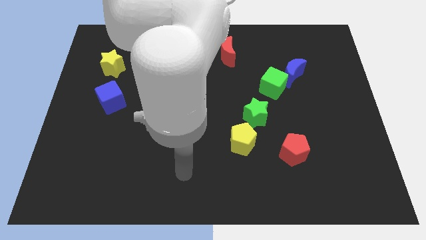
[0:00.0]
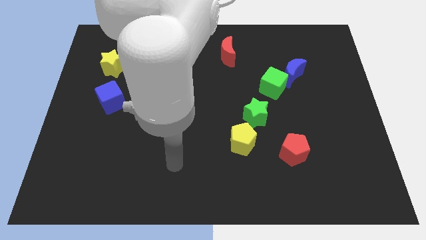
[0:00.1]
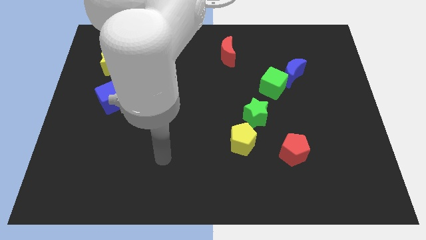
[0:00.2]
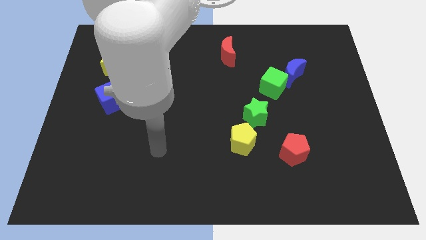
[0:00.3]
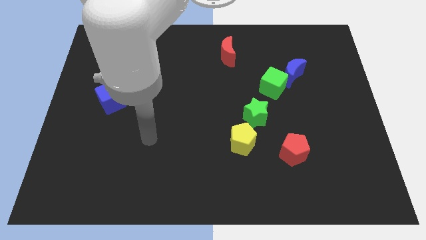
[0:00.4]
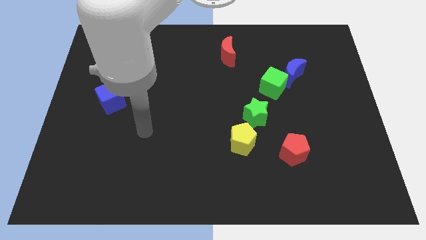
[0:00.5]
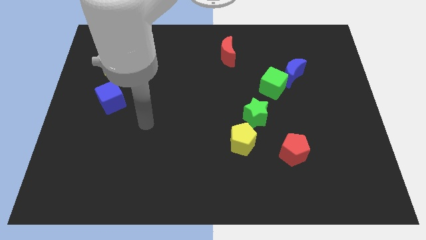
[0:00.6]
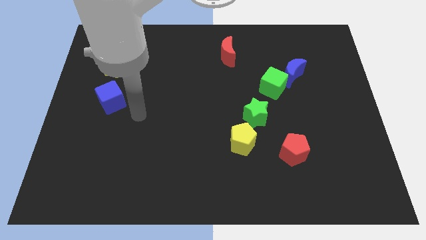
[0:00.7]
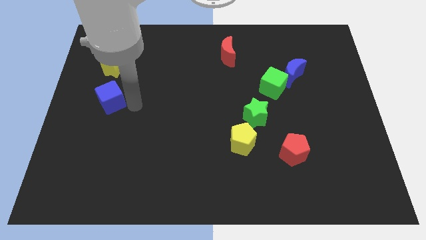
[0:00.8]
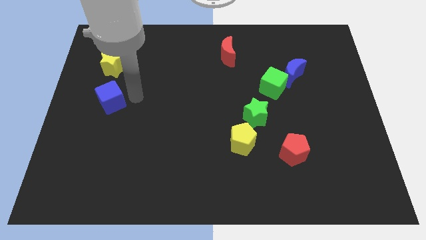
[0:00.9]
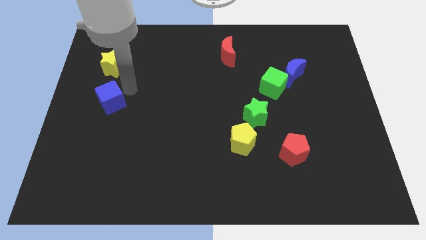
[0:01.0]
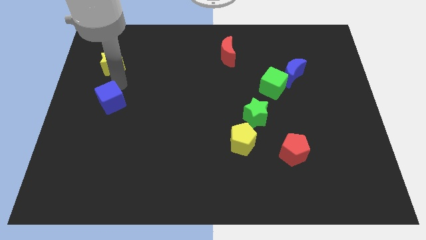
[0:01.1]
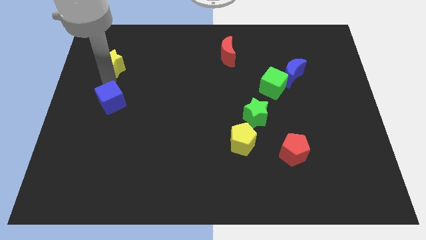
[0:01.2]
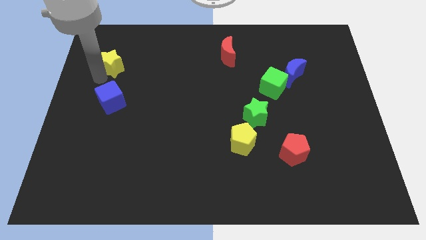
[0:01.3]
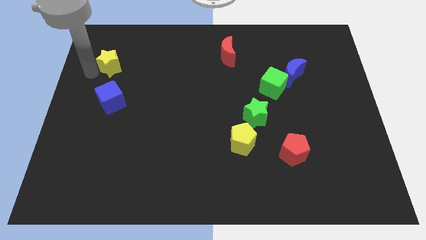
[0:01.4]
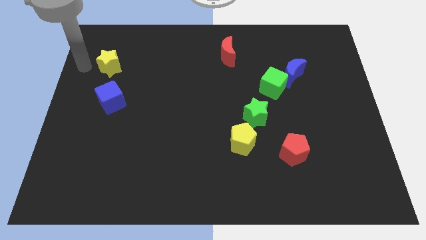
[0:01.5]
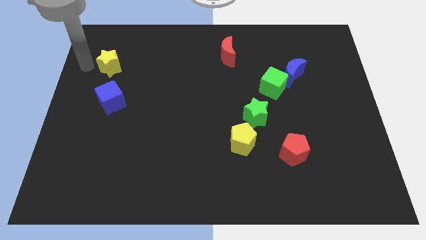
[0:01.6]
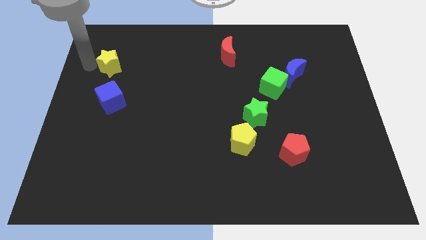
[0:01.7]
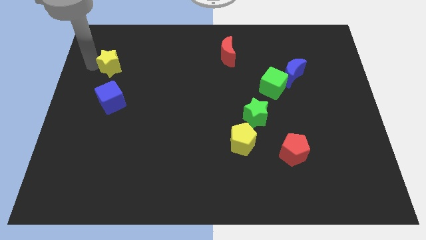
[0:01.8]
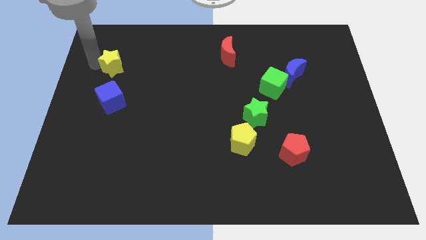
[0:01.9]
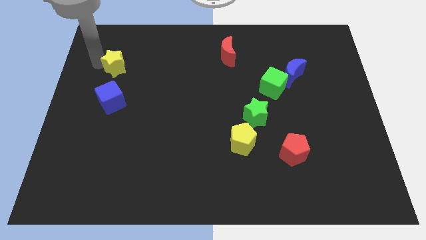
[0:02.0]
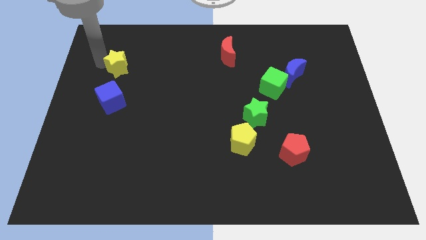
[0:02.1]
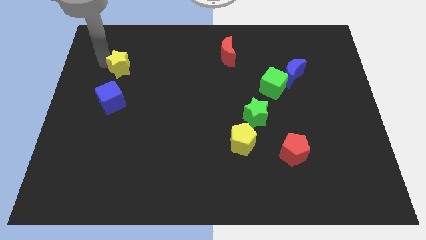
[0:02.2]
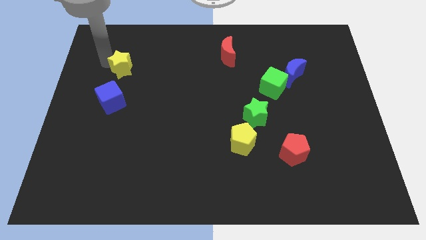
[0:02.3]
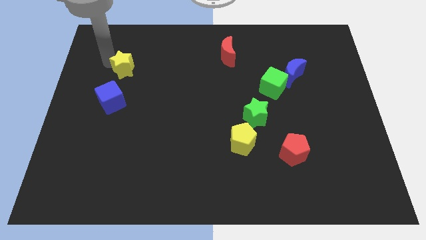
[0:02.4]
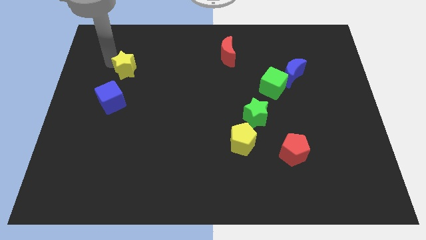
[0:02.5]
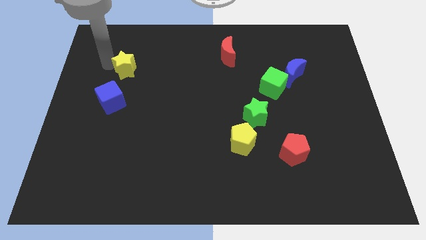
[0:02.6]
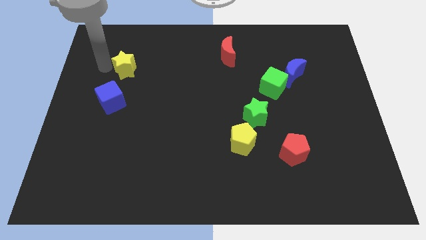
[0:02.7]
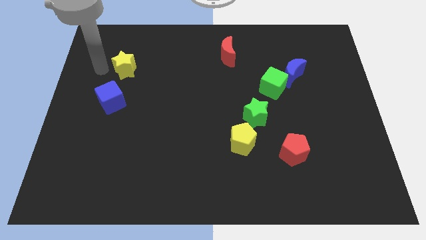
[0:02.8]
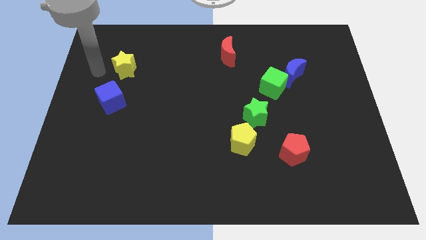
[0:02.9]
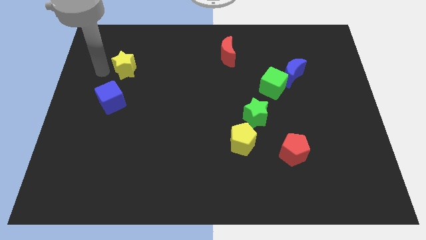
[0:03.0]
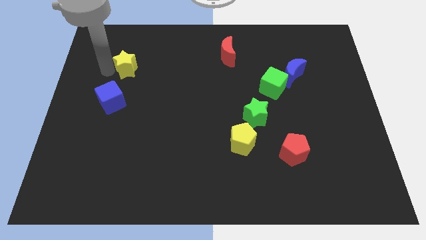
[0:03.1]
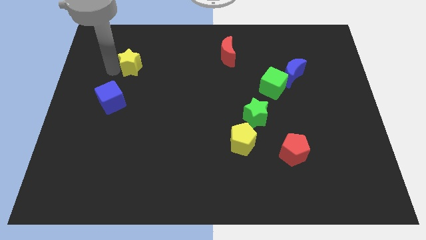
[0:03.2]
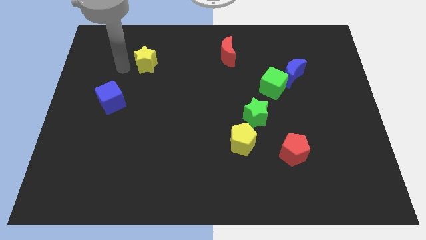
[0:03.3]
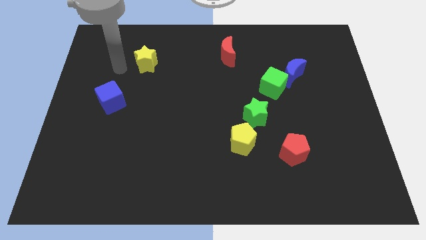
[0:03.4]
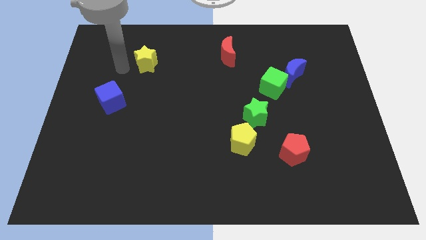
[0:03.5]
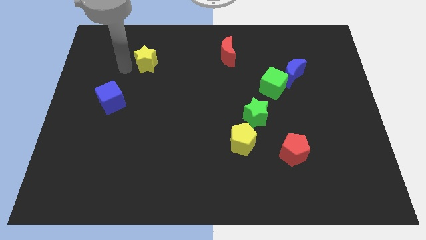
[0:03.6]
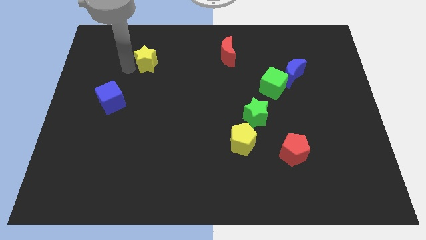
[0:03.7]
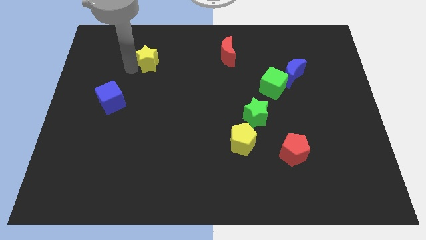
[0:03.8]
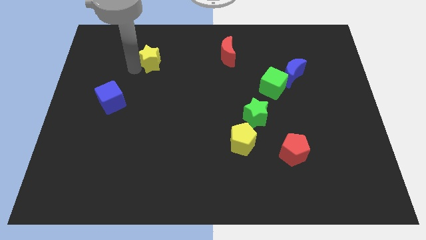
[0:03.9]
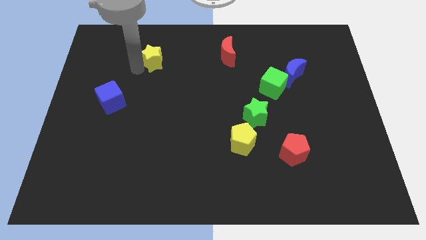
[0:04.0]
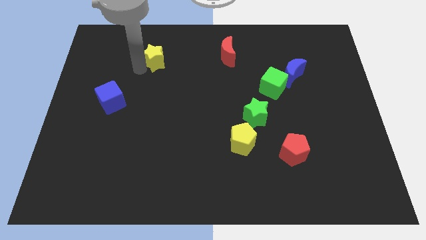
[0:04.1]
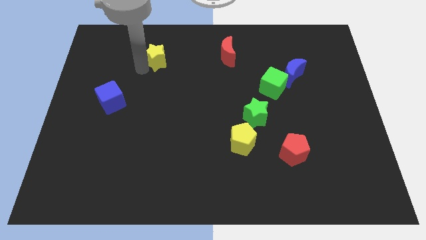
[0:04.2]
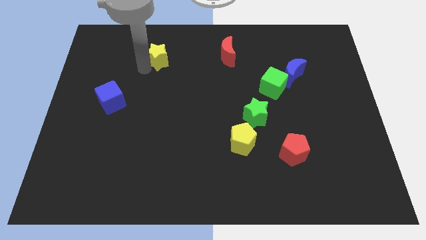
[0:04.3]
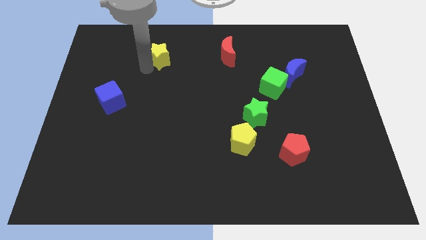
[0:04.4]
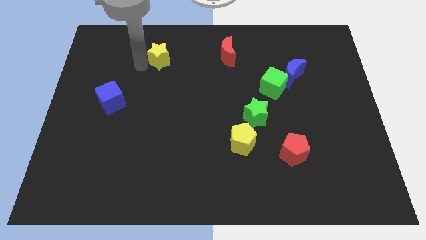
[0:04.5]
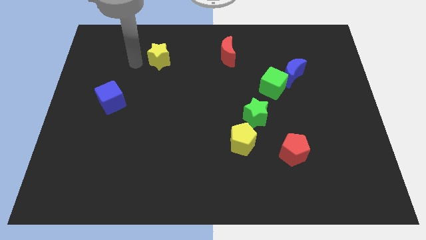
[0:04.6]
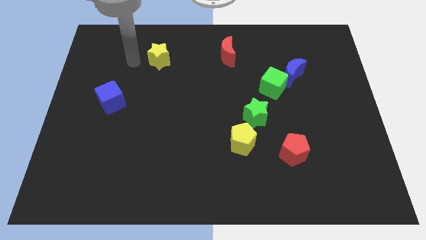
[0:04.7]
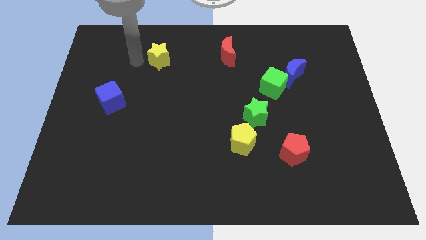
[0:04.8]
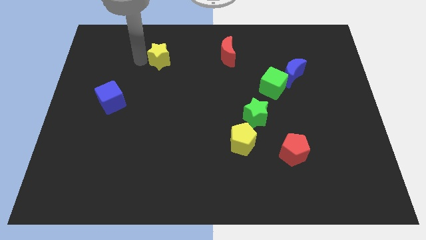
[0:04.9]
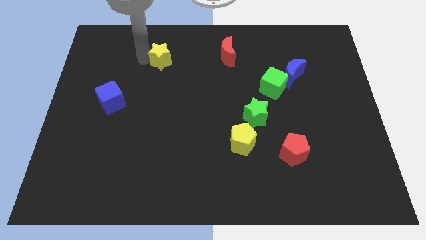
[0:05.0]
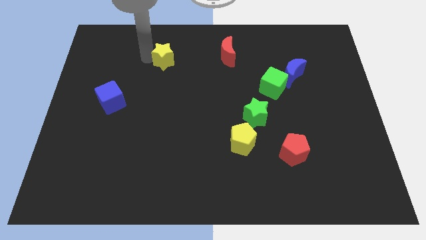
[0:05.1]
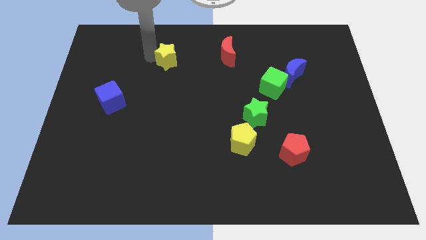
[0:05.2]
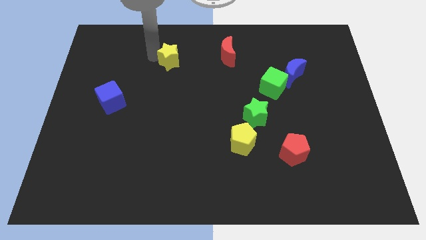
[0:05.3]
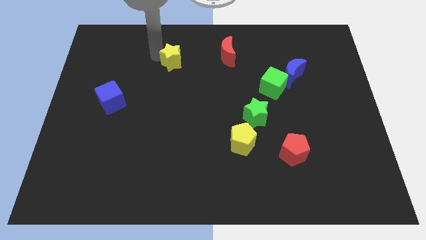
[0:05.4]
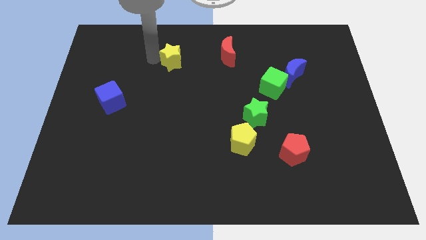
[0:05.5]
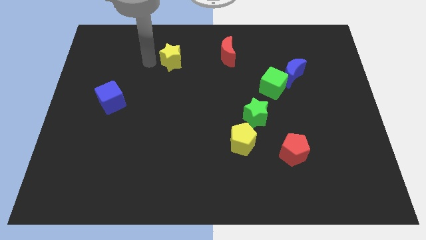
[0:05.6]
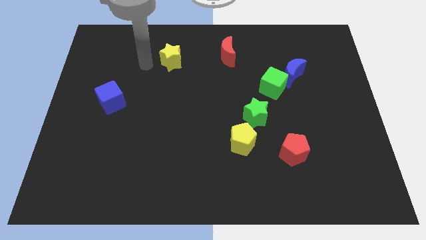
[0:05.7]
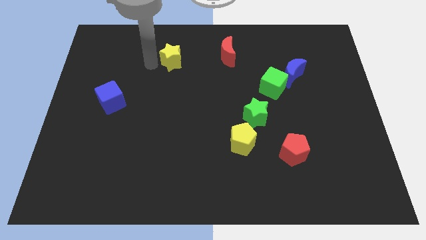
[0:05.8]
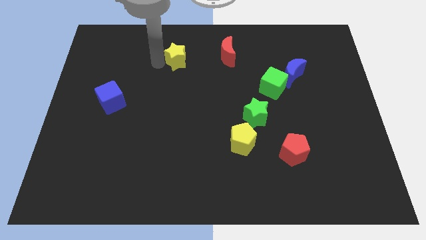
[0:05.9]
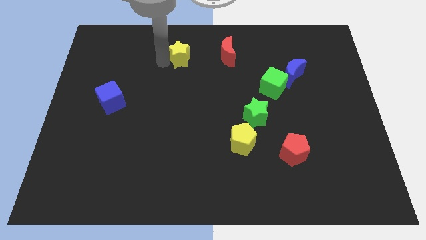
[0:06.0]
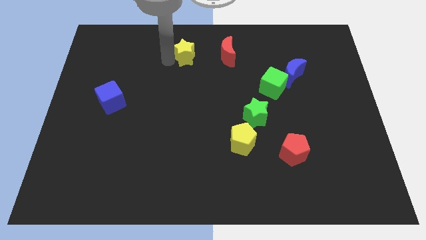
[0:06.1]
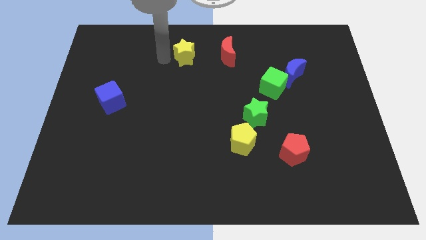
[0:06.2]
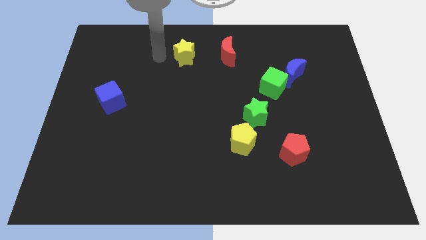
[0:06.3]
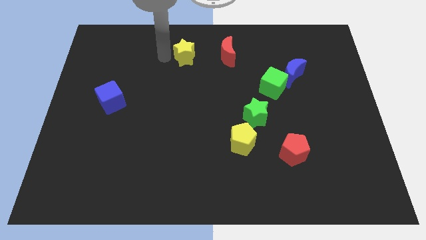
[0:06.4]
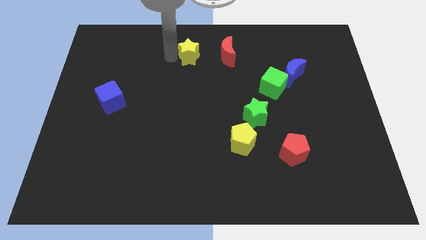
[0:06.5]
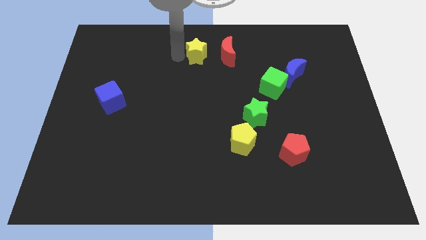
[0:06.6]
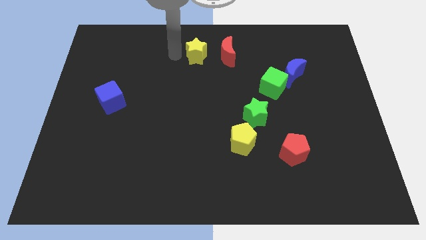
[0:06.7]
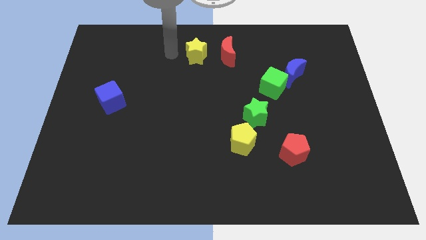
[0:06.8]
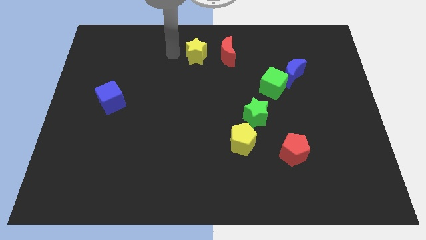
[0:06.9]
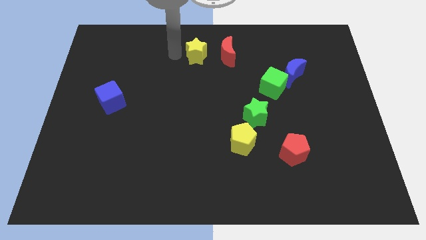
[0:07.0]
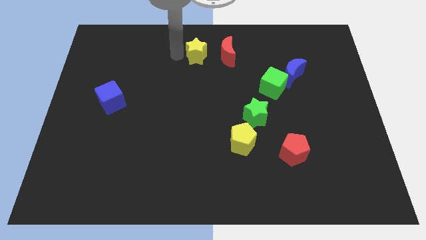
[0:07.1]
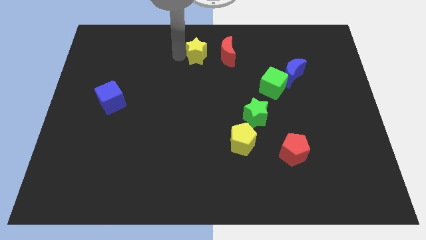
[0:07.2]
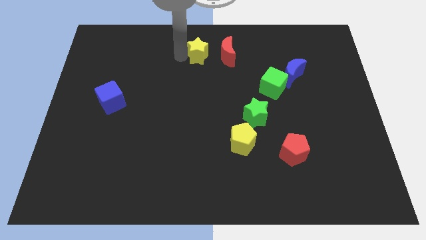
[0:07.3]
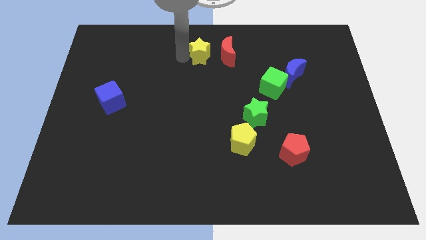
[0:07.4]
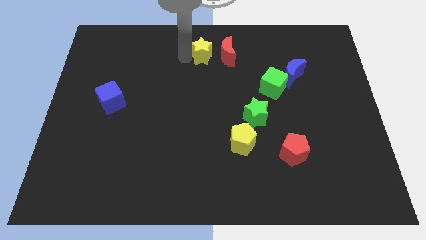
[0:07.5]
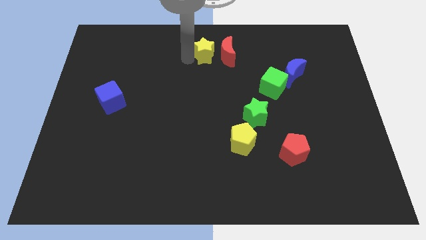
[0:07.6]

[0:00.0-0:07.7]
slide the yellow star to the red moon
